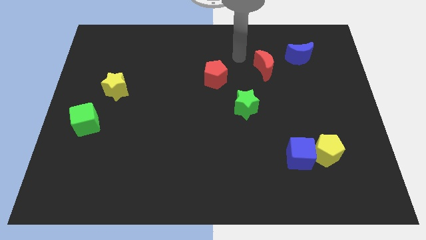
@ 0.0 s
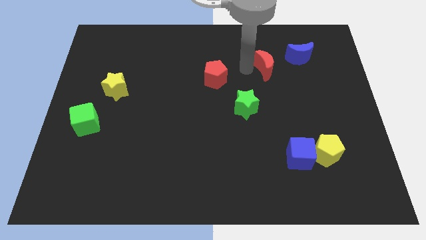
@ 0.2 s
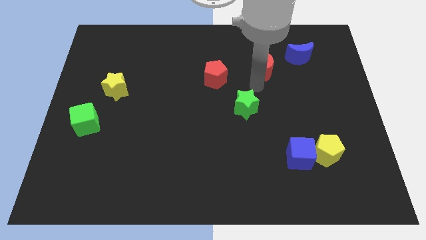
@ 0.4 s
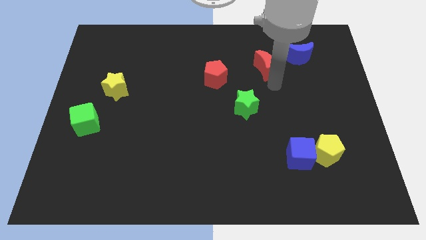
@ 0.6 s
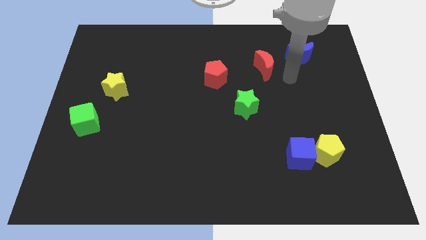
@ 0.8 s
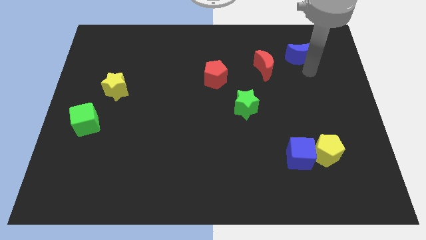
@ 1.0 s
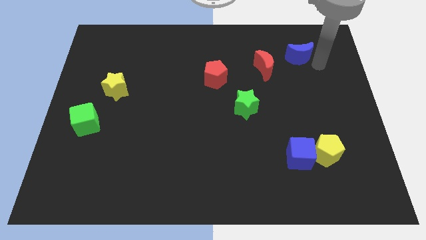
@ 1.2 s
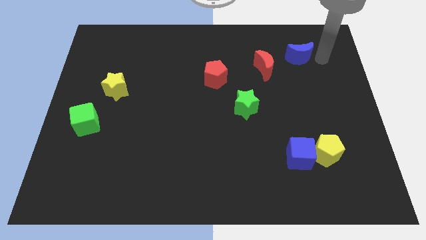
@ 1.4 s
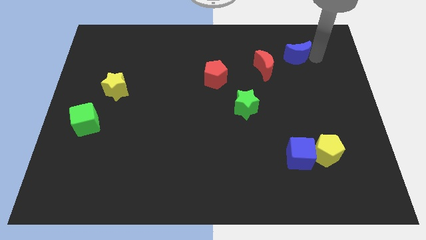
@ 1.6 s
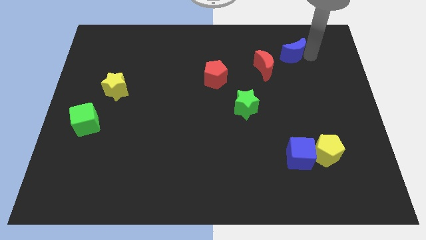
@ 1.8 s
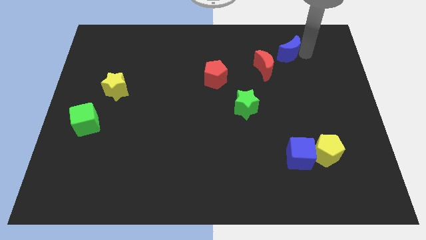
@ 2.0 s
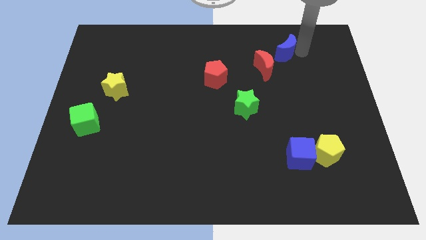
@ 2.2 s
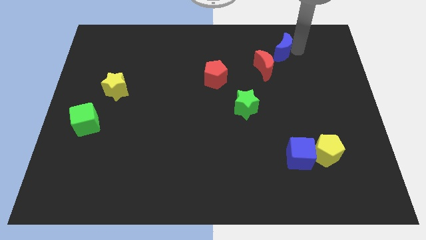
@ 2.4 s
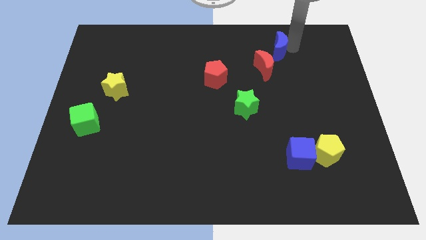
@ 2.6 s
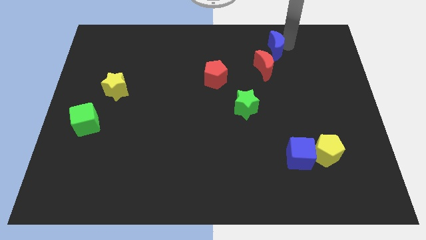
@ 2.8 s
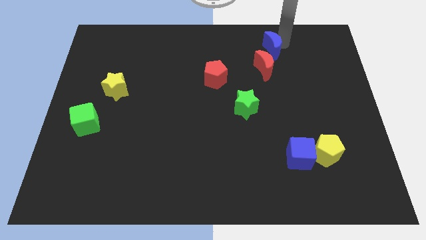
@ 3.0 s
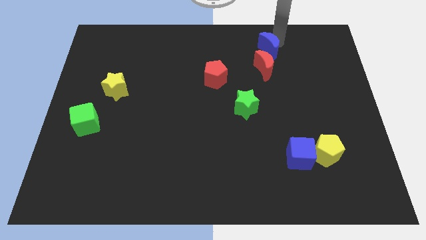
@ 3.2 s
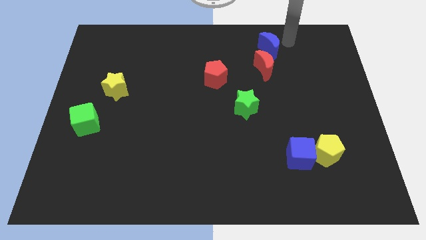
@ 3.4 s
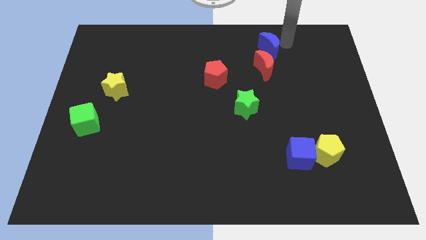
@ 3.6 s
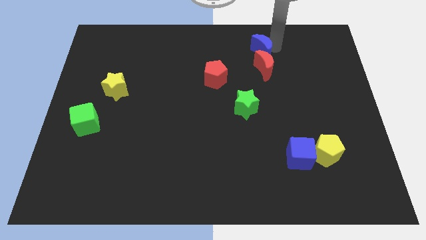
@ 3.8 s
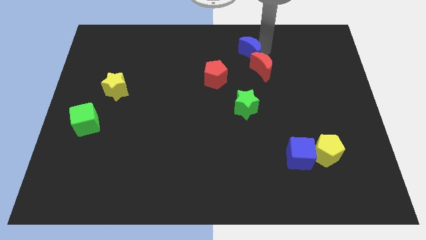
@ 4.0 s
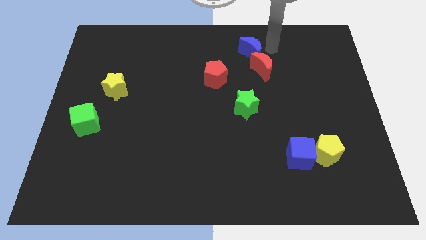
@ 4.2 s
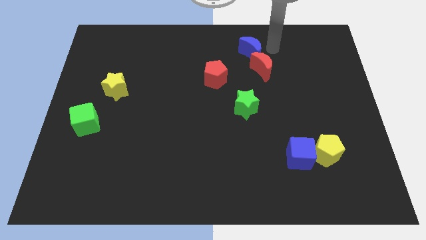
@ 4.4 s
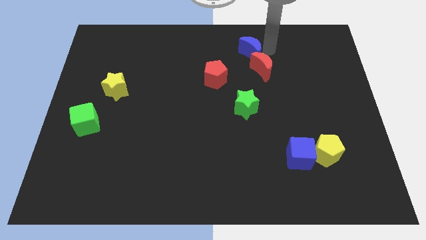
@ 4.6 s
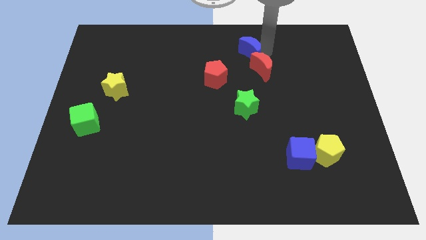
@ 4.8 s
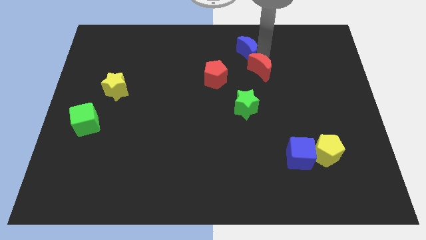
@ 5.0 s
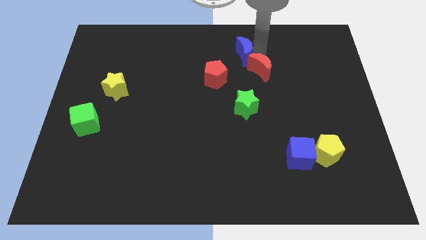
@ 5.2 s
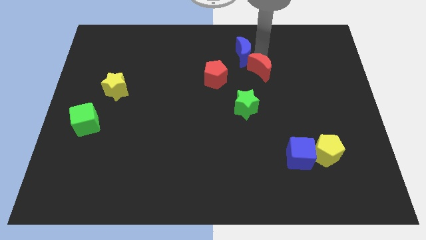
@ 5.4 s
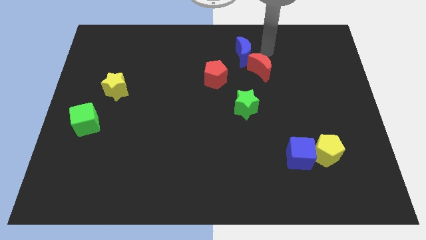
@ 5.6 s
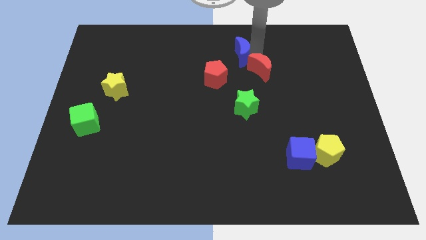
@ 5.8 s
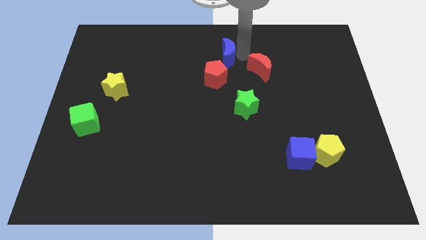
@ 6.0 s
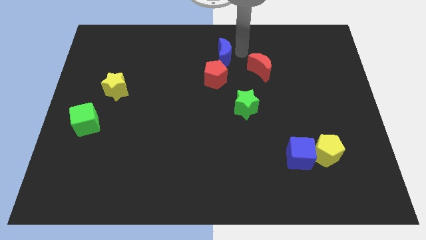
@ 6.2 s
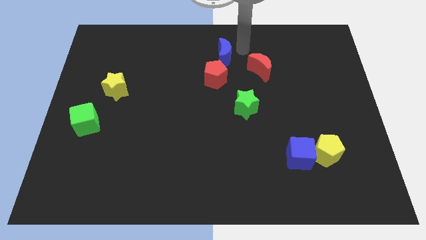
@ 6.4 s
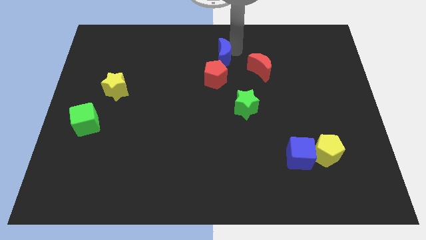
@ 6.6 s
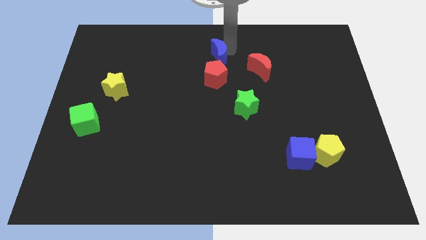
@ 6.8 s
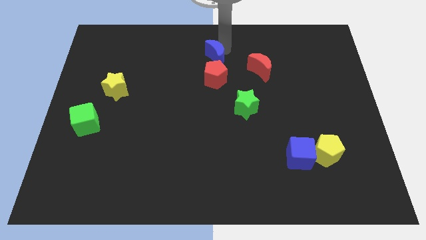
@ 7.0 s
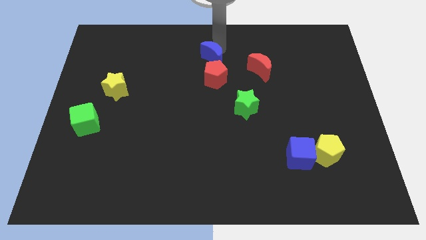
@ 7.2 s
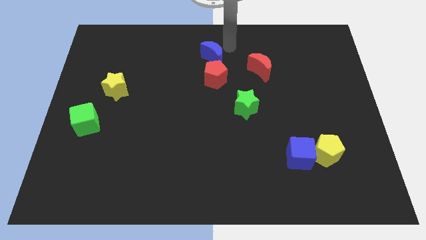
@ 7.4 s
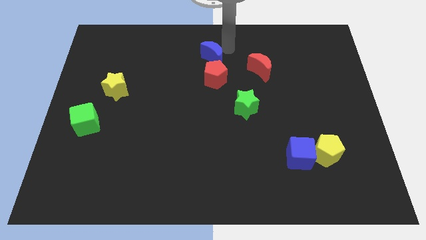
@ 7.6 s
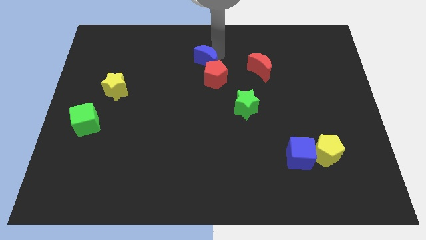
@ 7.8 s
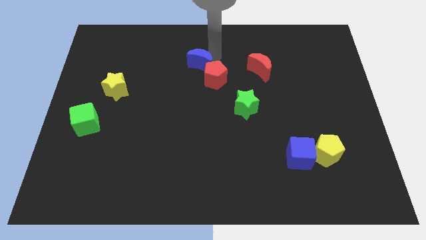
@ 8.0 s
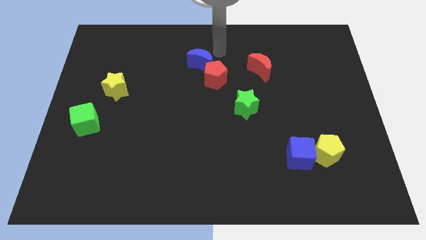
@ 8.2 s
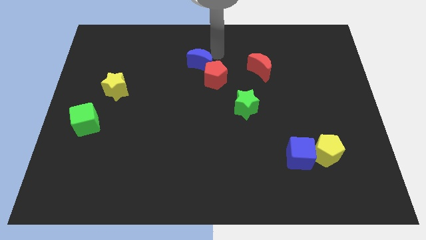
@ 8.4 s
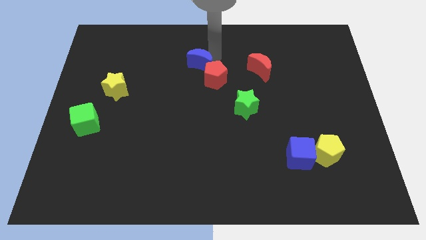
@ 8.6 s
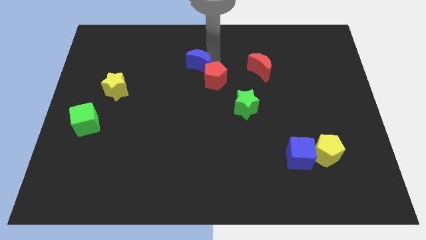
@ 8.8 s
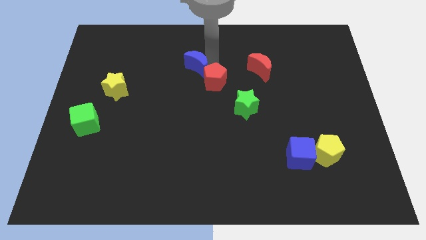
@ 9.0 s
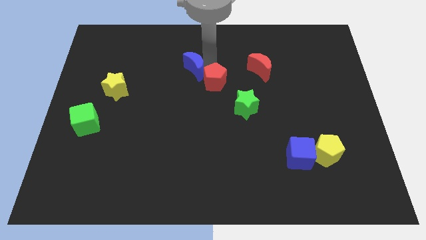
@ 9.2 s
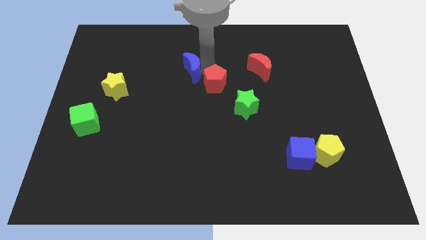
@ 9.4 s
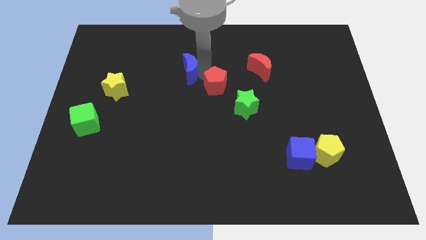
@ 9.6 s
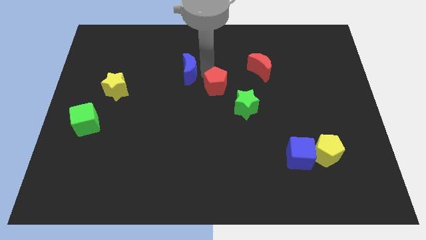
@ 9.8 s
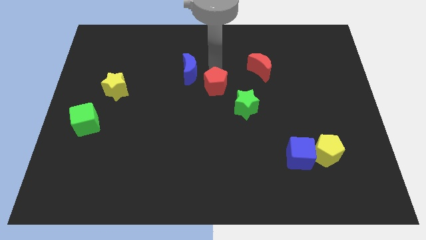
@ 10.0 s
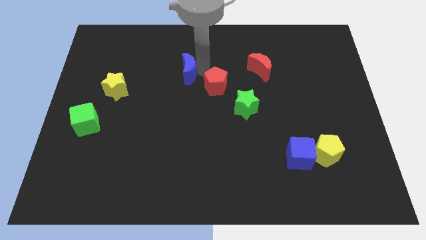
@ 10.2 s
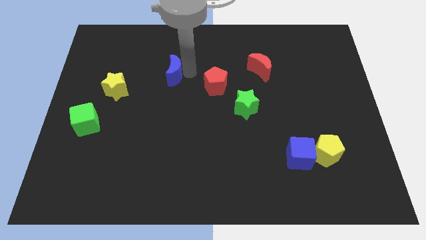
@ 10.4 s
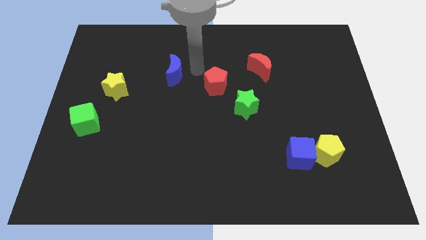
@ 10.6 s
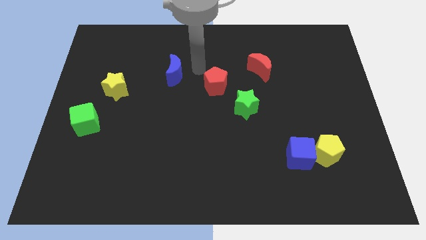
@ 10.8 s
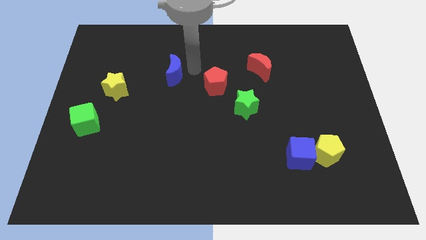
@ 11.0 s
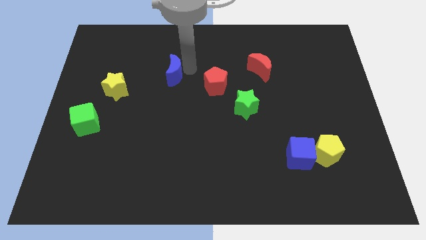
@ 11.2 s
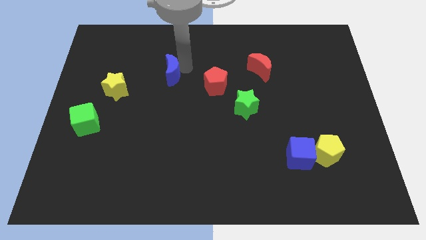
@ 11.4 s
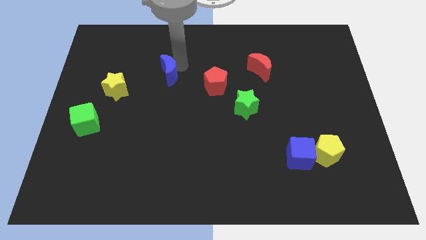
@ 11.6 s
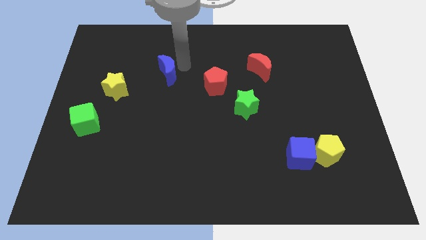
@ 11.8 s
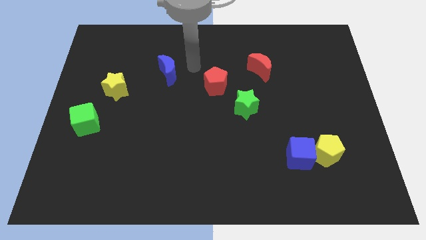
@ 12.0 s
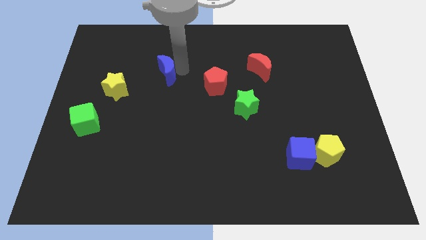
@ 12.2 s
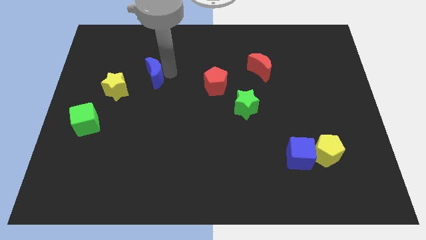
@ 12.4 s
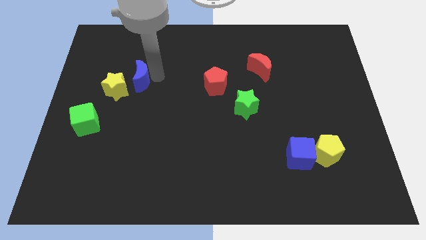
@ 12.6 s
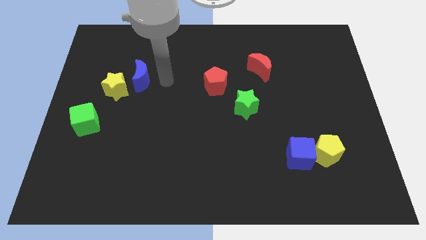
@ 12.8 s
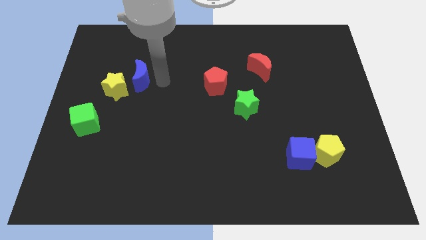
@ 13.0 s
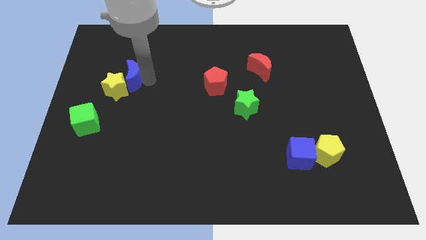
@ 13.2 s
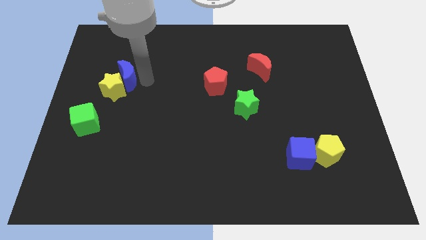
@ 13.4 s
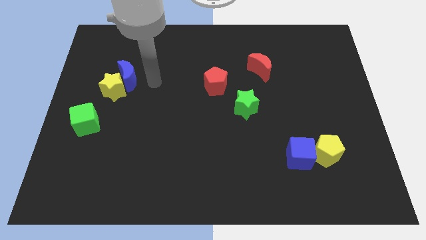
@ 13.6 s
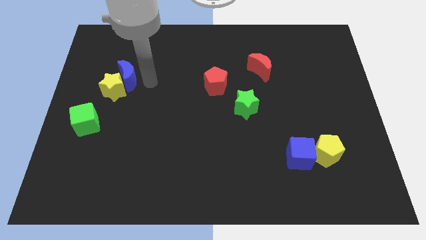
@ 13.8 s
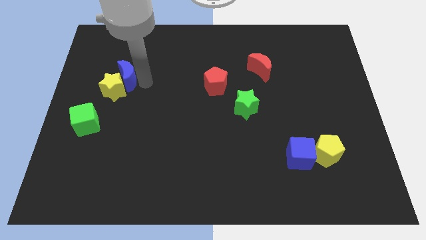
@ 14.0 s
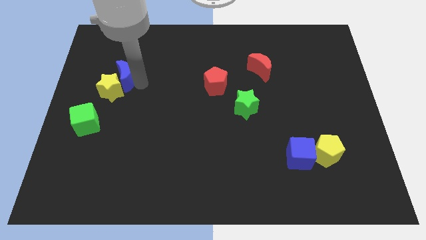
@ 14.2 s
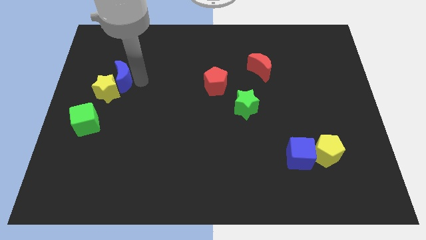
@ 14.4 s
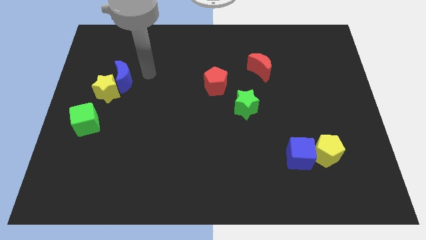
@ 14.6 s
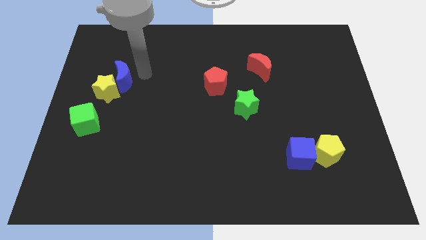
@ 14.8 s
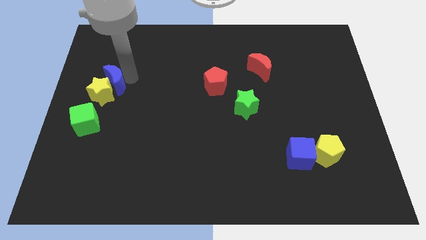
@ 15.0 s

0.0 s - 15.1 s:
push the blue moon to the top of the green cube
